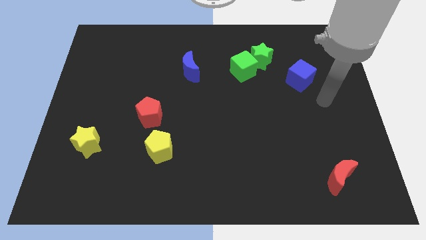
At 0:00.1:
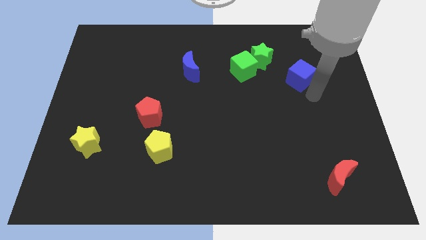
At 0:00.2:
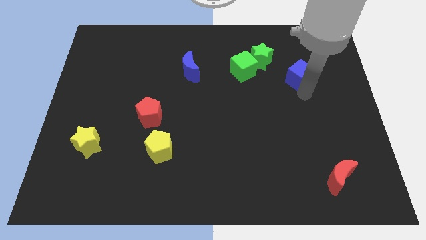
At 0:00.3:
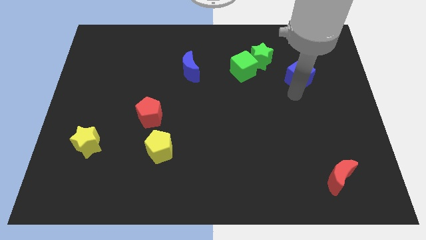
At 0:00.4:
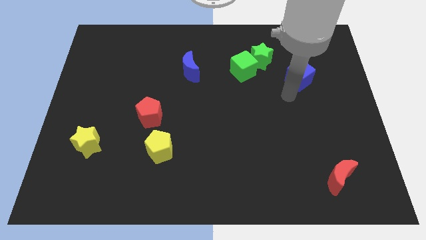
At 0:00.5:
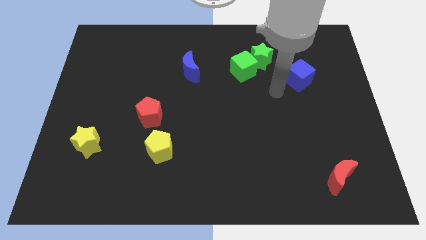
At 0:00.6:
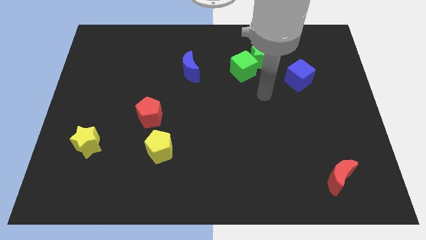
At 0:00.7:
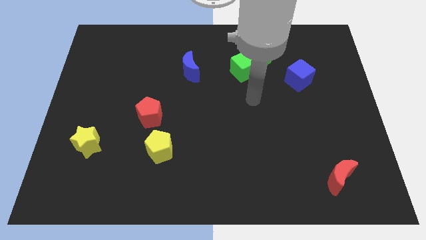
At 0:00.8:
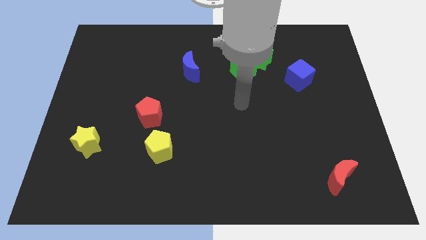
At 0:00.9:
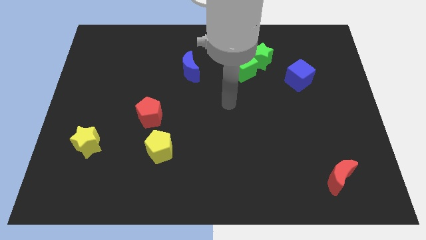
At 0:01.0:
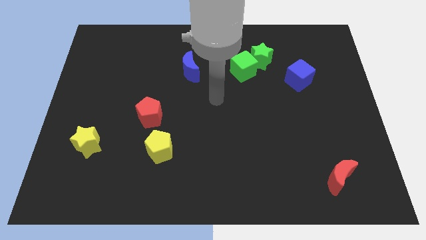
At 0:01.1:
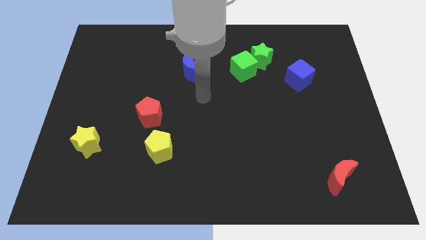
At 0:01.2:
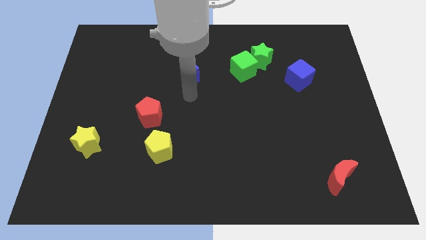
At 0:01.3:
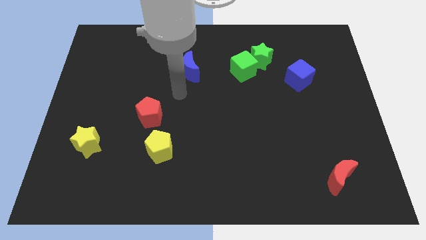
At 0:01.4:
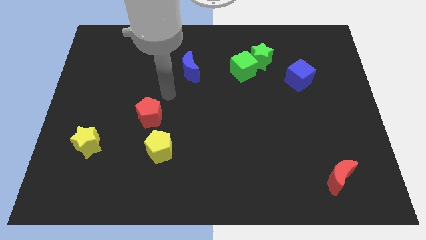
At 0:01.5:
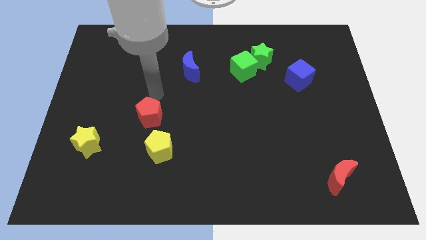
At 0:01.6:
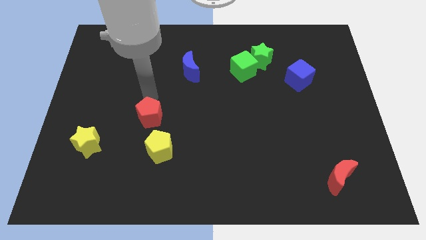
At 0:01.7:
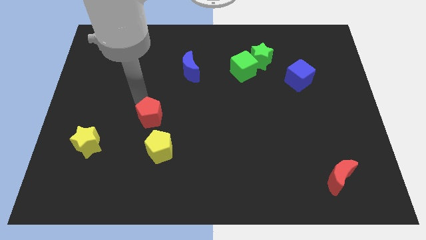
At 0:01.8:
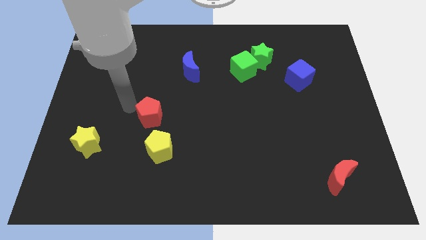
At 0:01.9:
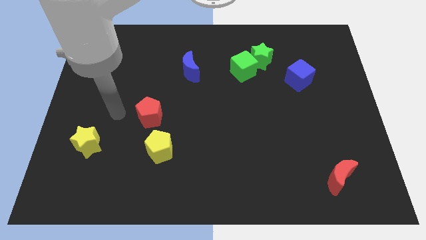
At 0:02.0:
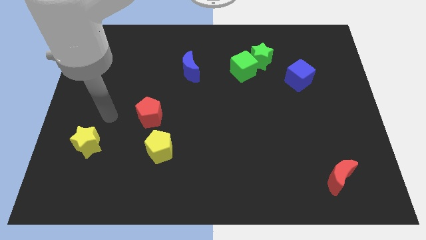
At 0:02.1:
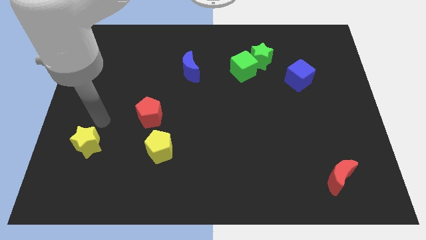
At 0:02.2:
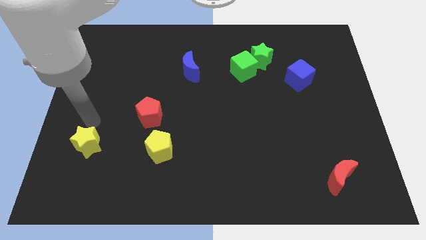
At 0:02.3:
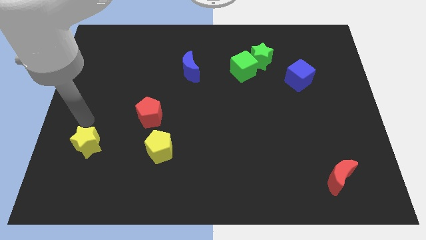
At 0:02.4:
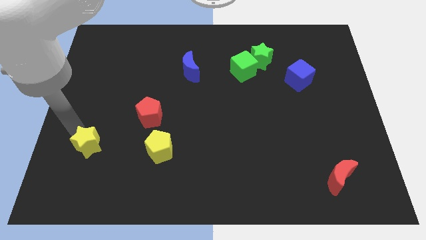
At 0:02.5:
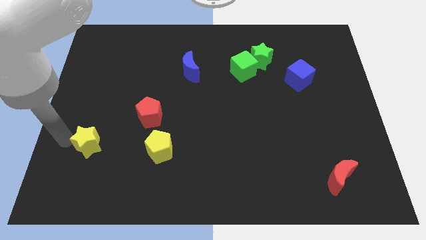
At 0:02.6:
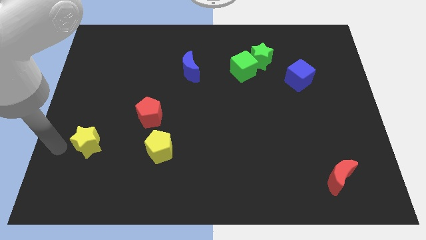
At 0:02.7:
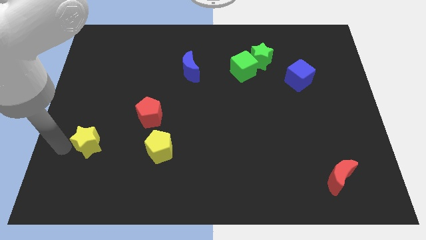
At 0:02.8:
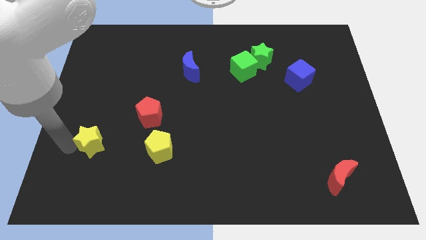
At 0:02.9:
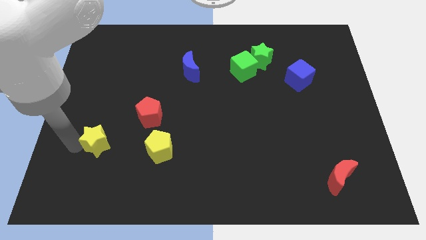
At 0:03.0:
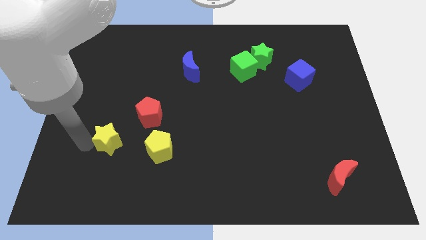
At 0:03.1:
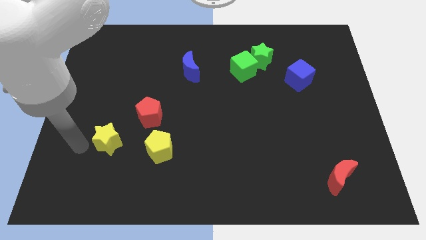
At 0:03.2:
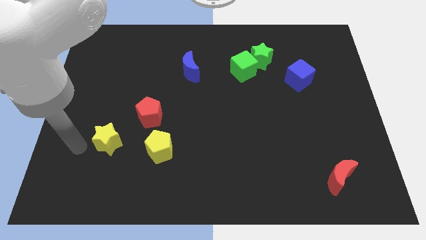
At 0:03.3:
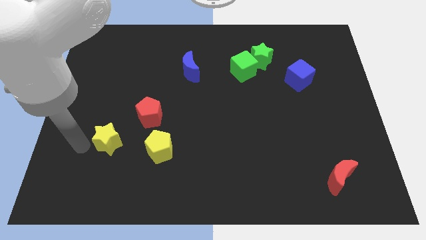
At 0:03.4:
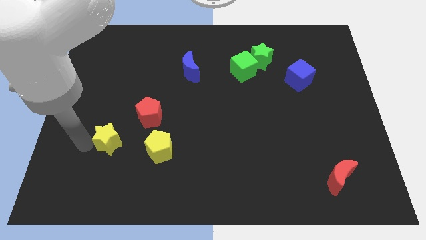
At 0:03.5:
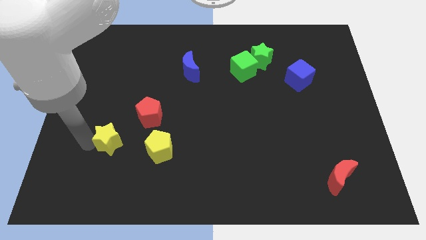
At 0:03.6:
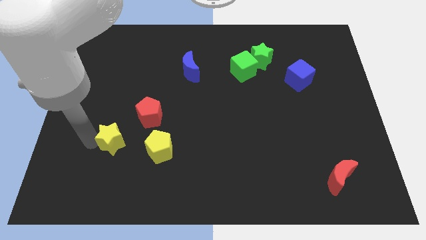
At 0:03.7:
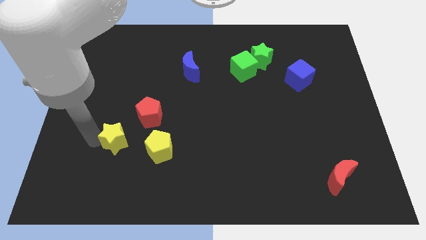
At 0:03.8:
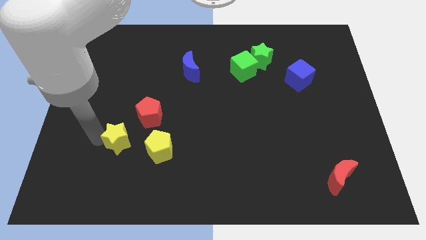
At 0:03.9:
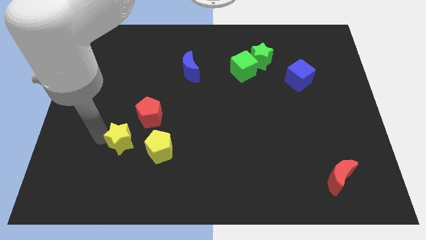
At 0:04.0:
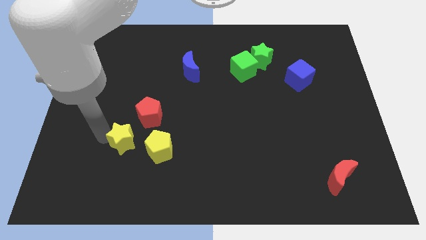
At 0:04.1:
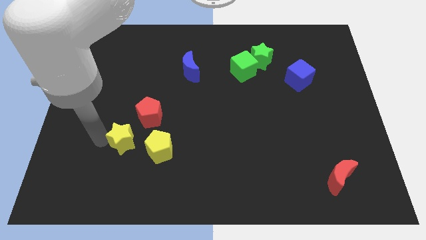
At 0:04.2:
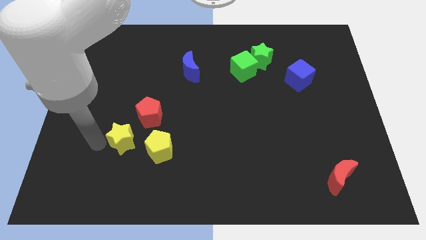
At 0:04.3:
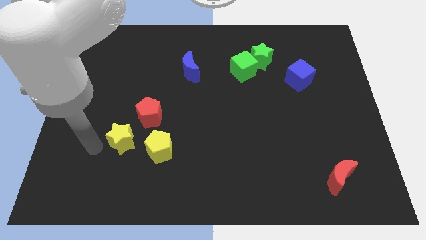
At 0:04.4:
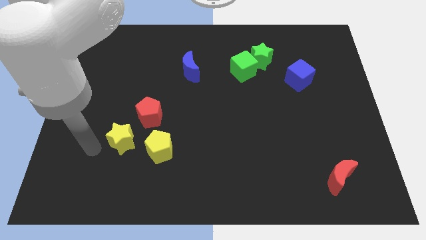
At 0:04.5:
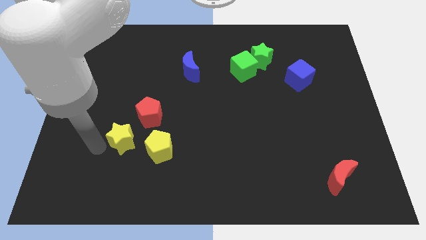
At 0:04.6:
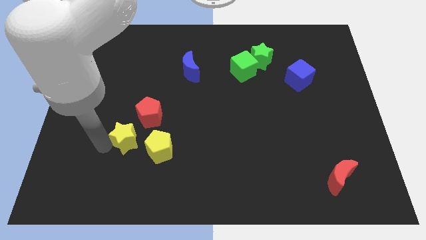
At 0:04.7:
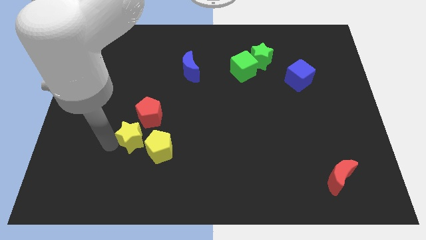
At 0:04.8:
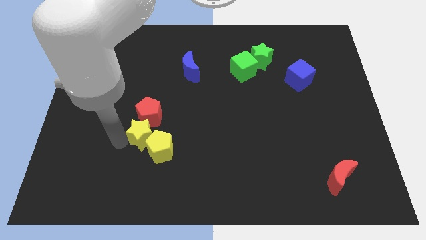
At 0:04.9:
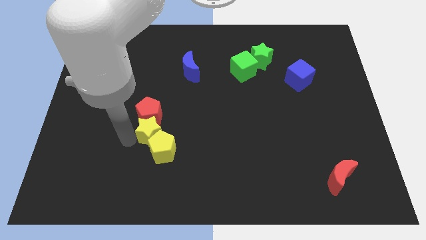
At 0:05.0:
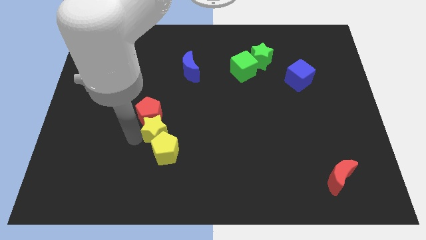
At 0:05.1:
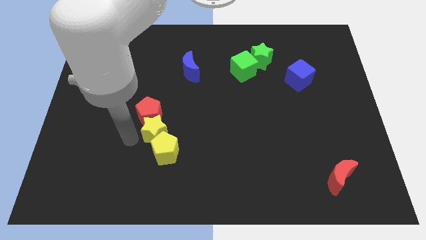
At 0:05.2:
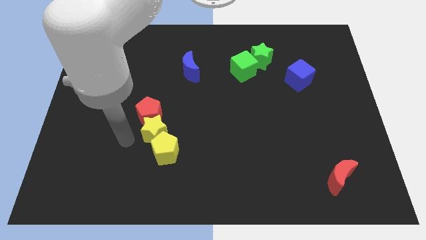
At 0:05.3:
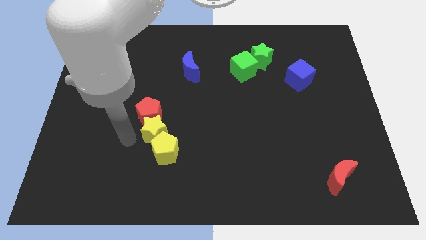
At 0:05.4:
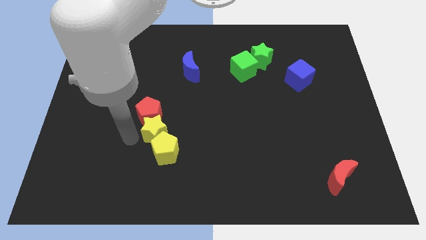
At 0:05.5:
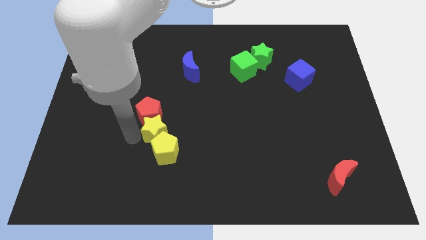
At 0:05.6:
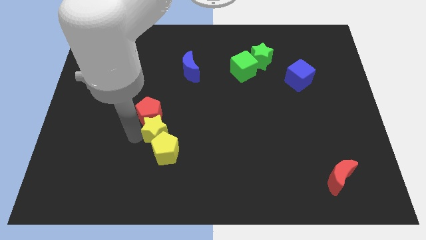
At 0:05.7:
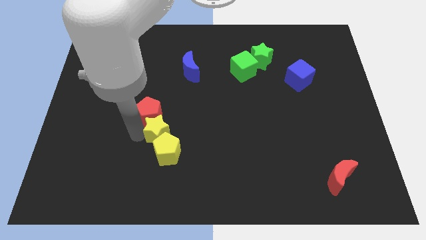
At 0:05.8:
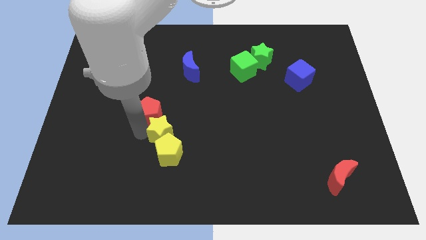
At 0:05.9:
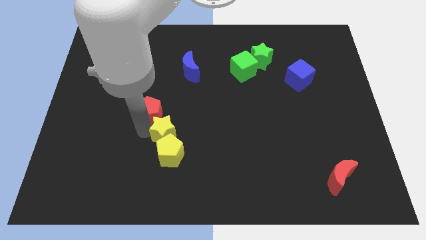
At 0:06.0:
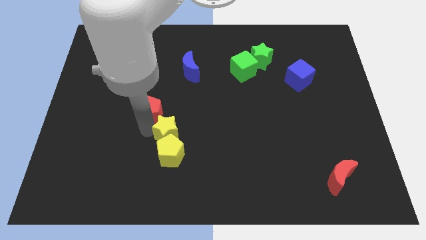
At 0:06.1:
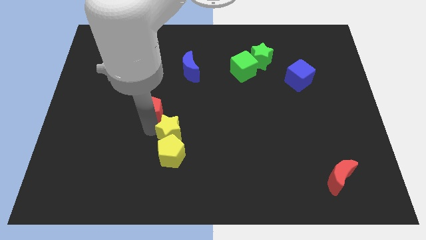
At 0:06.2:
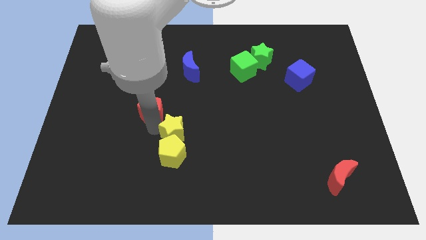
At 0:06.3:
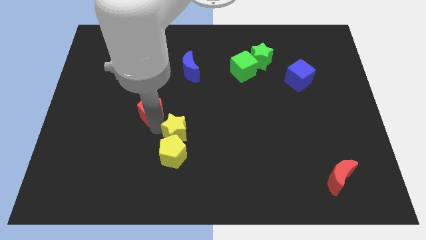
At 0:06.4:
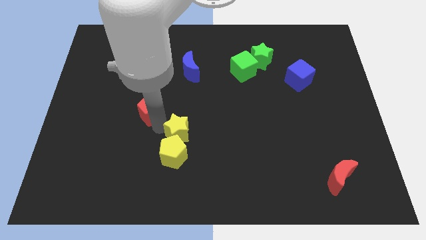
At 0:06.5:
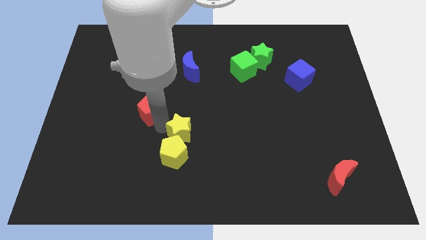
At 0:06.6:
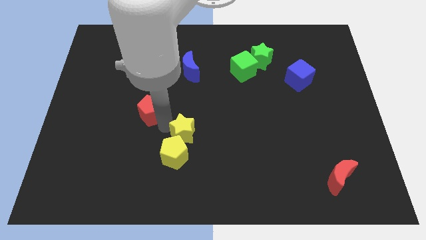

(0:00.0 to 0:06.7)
move the yellow star to the right

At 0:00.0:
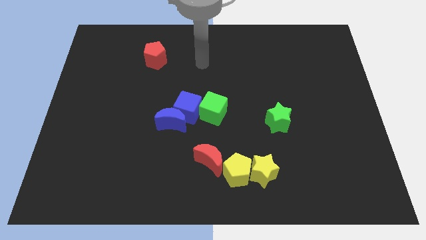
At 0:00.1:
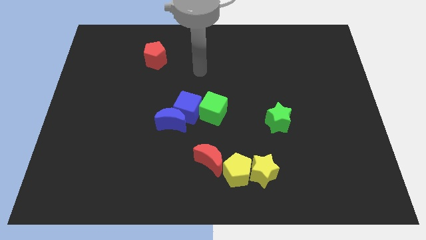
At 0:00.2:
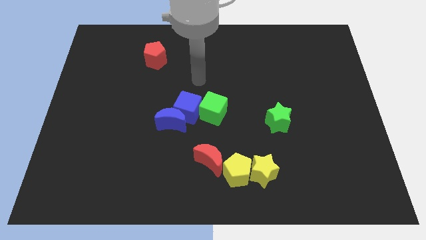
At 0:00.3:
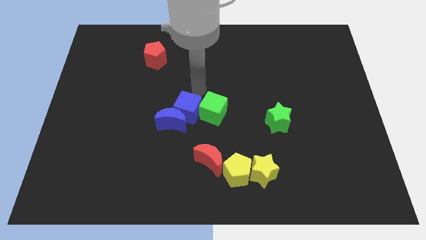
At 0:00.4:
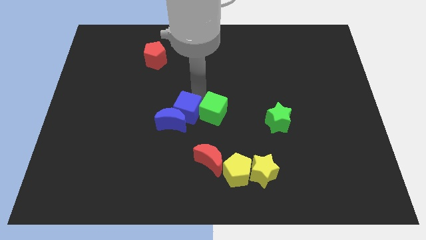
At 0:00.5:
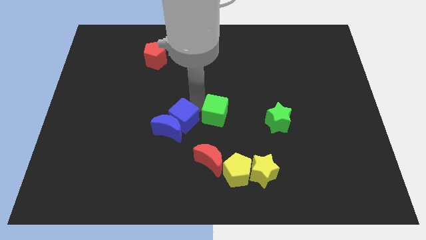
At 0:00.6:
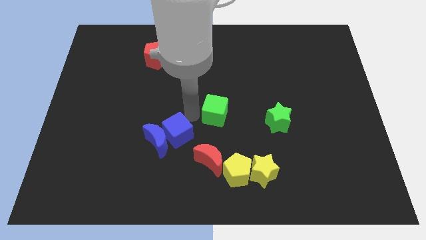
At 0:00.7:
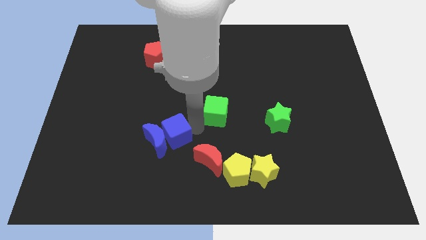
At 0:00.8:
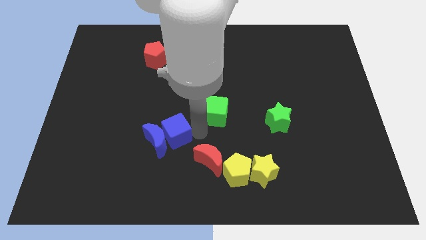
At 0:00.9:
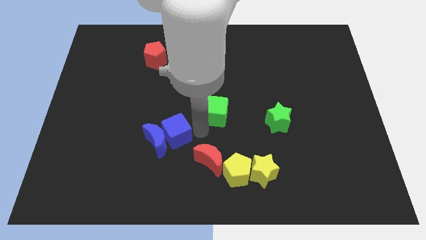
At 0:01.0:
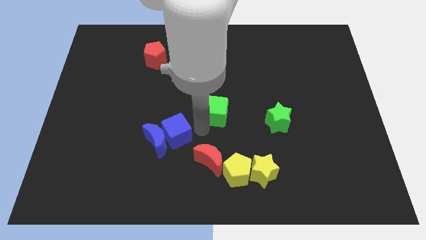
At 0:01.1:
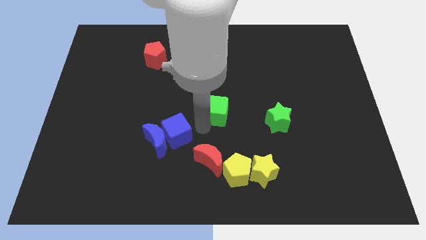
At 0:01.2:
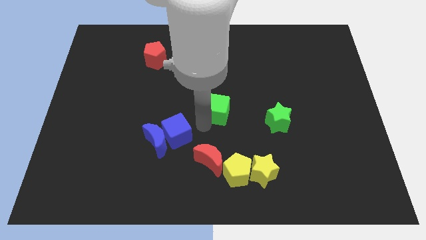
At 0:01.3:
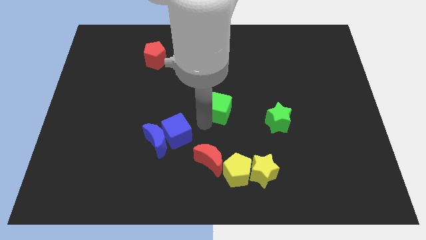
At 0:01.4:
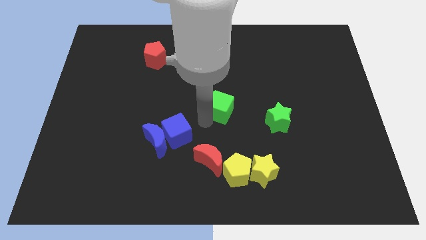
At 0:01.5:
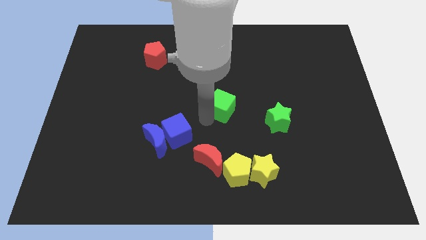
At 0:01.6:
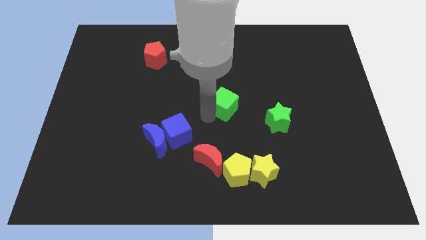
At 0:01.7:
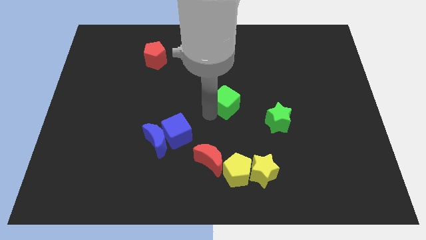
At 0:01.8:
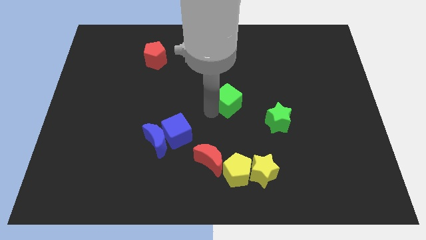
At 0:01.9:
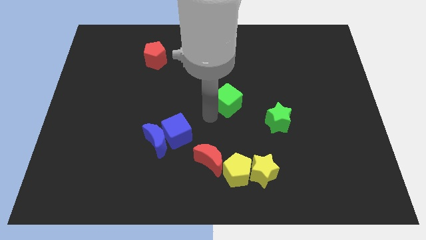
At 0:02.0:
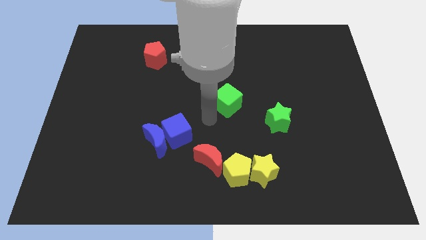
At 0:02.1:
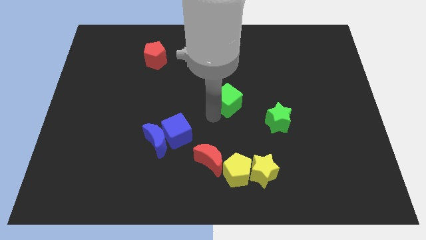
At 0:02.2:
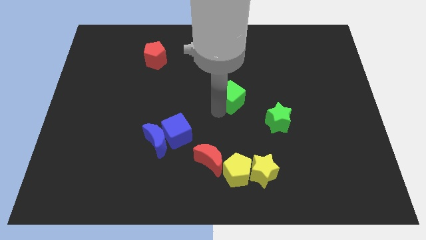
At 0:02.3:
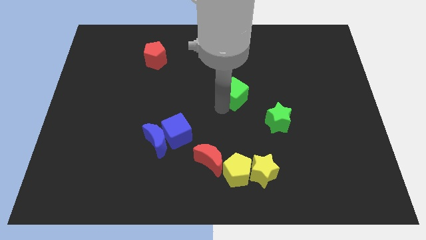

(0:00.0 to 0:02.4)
slightly move the green cube diagonally up and right
